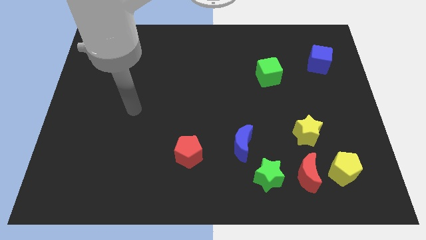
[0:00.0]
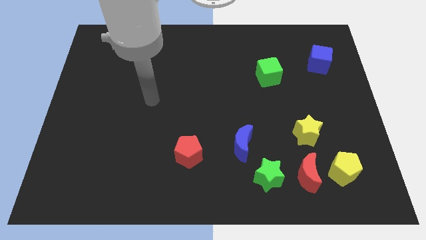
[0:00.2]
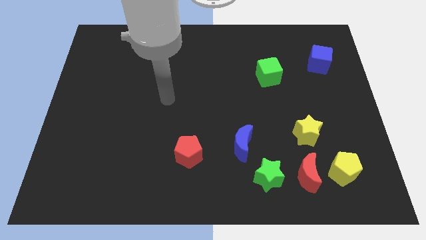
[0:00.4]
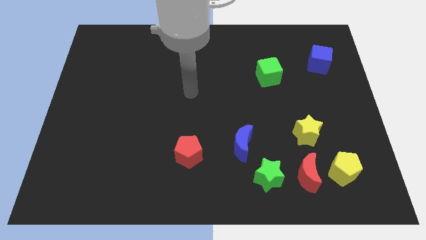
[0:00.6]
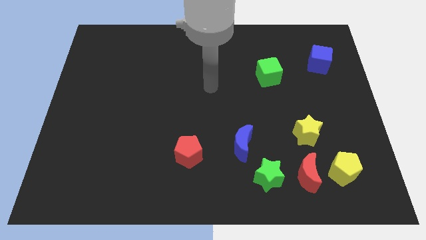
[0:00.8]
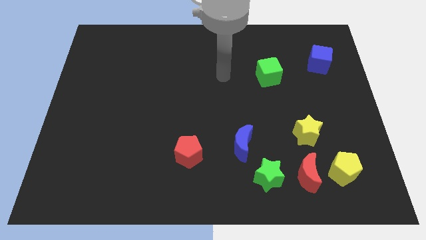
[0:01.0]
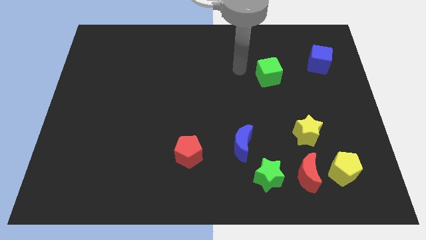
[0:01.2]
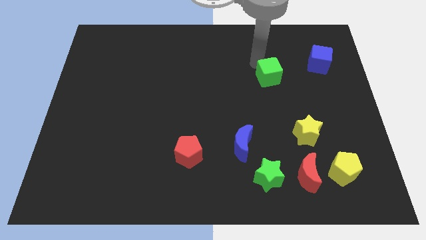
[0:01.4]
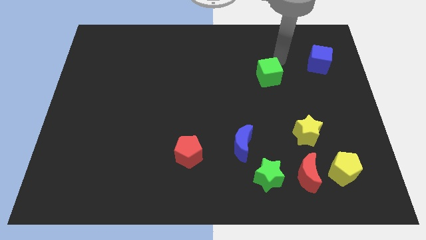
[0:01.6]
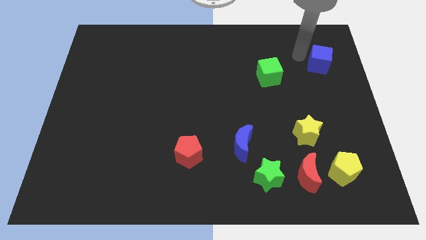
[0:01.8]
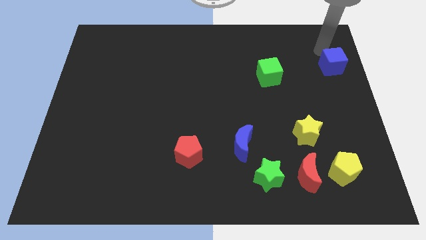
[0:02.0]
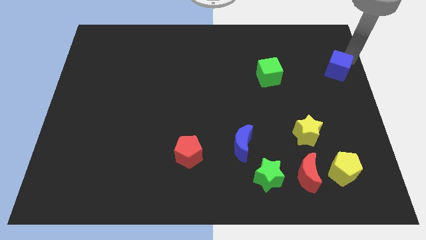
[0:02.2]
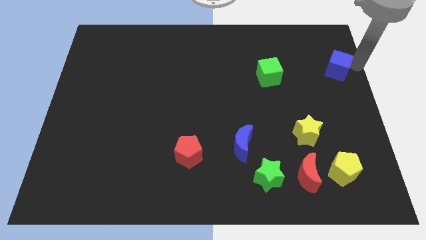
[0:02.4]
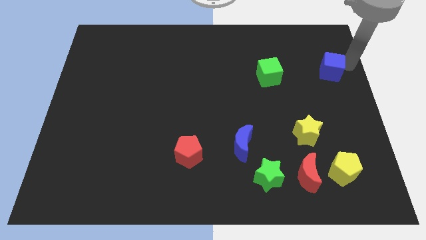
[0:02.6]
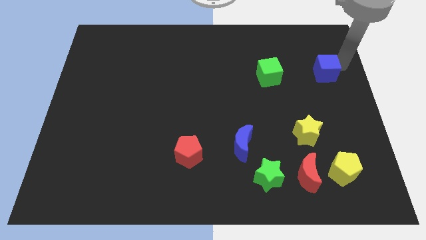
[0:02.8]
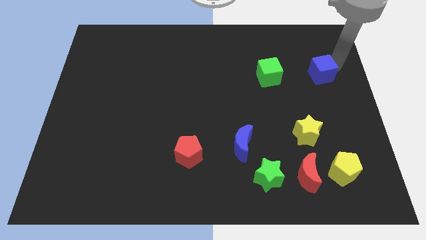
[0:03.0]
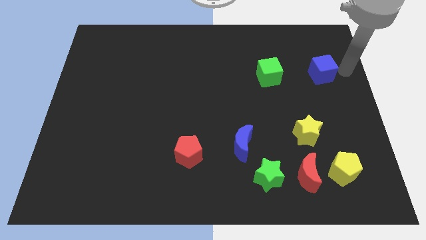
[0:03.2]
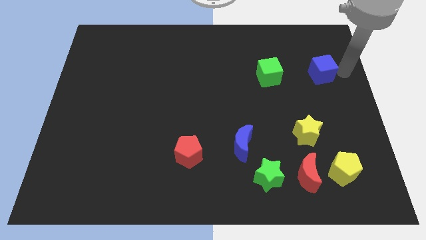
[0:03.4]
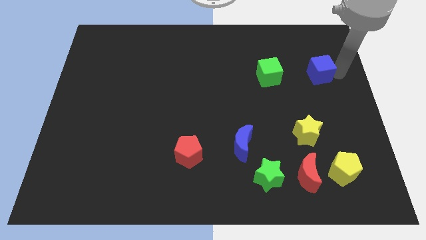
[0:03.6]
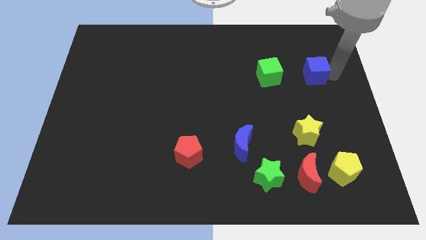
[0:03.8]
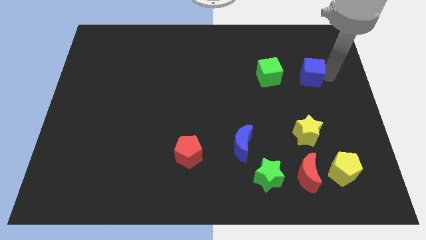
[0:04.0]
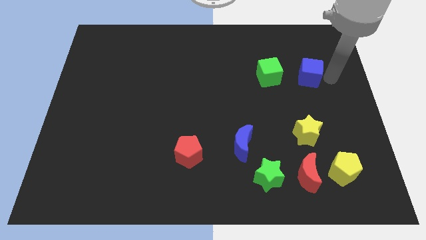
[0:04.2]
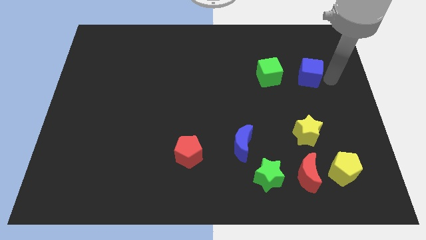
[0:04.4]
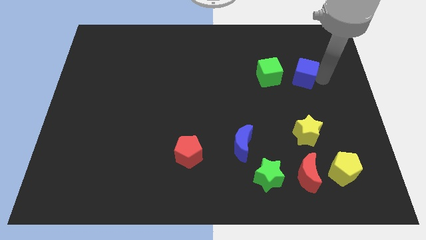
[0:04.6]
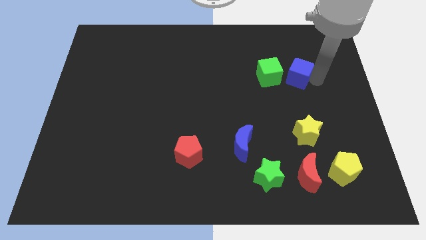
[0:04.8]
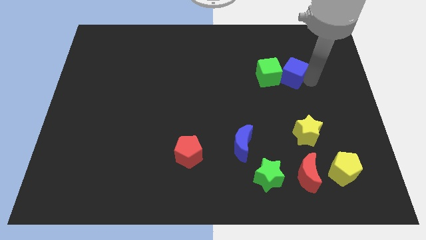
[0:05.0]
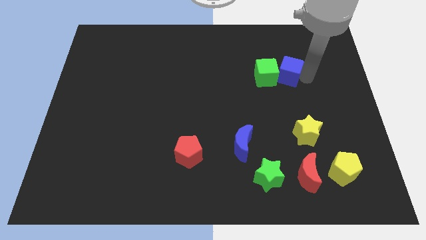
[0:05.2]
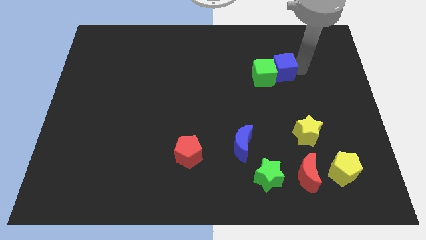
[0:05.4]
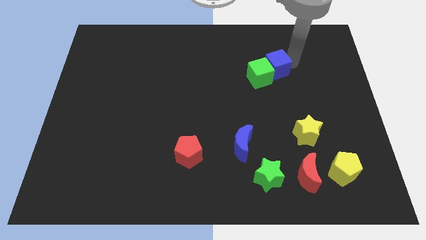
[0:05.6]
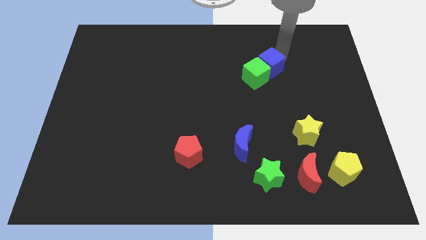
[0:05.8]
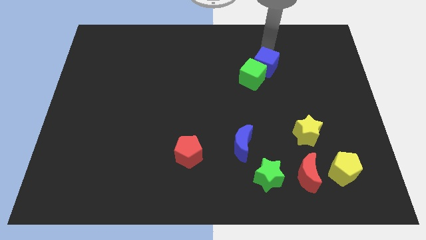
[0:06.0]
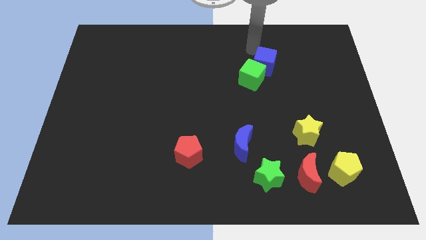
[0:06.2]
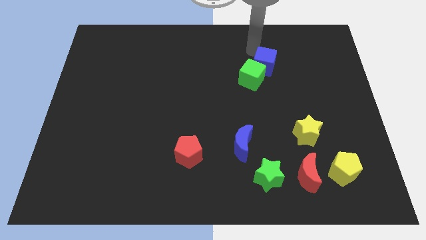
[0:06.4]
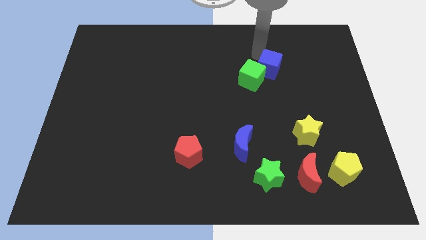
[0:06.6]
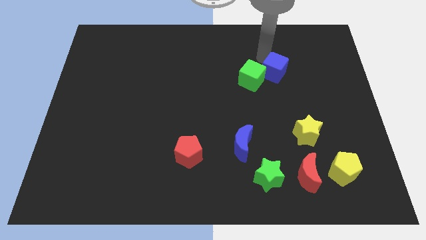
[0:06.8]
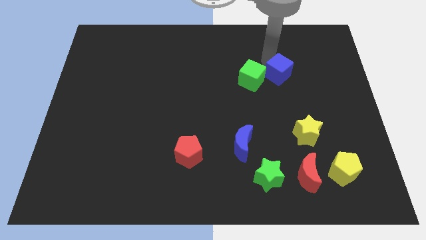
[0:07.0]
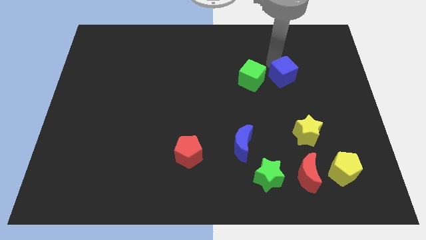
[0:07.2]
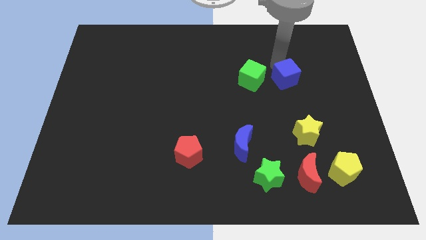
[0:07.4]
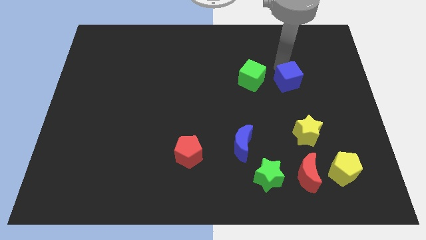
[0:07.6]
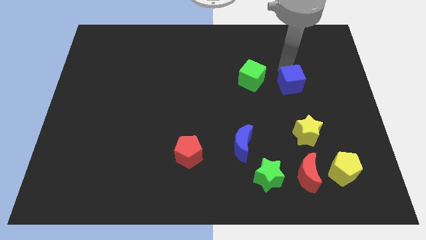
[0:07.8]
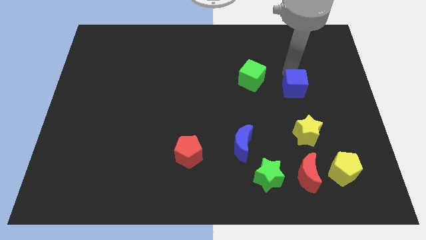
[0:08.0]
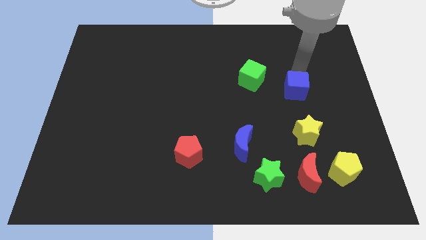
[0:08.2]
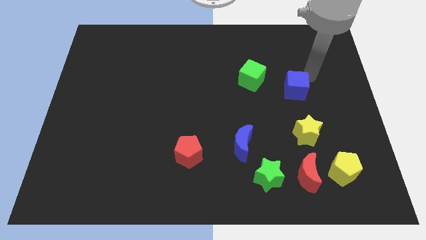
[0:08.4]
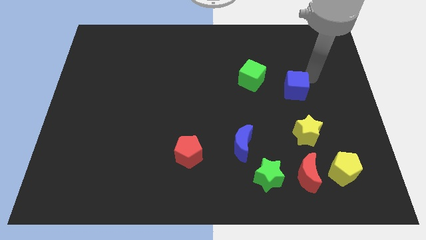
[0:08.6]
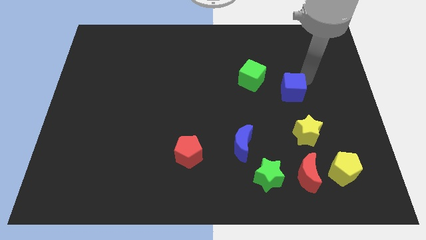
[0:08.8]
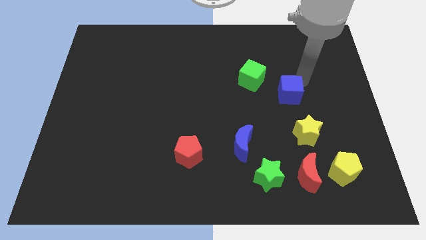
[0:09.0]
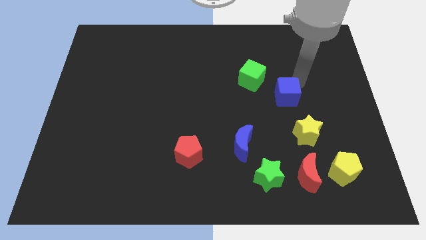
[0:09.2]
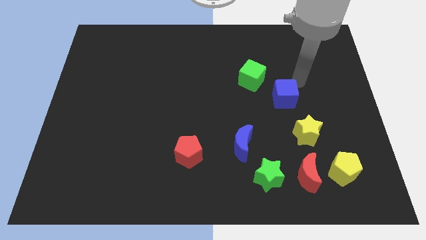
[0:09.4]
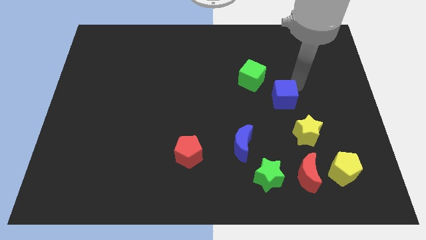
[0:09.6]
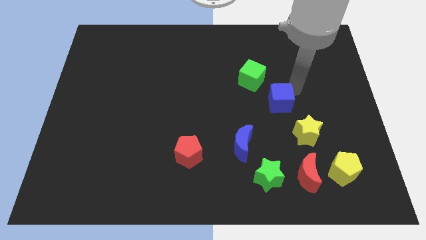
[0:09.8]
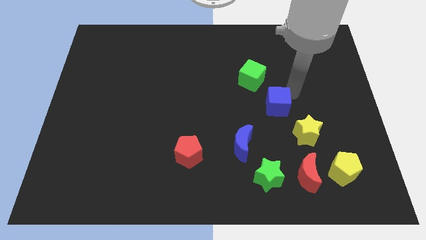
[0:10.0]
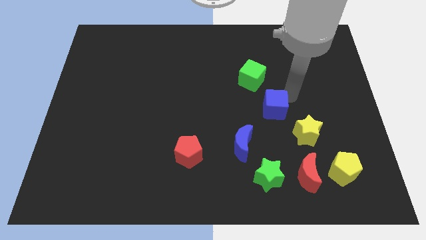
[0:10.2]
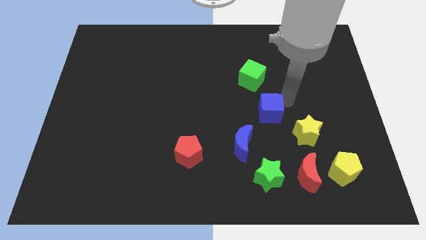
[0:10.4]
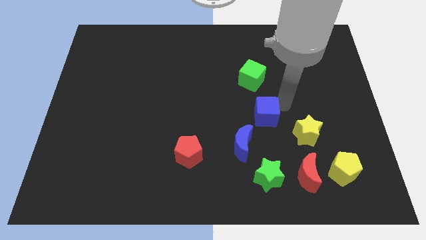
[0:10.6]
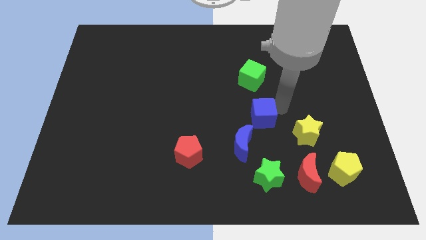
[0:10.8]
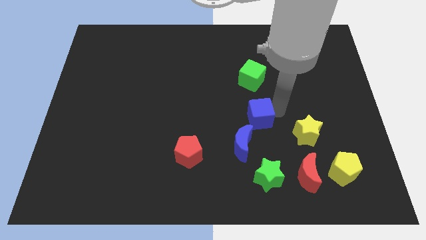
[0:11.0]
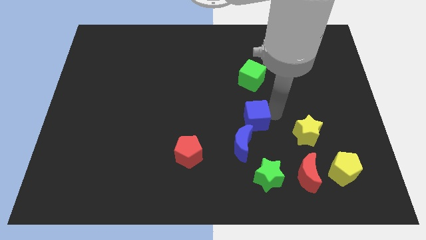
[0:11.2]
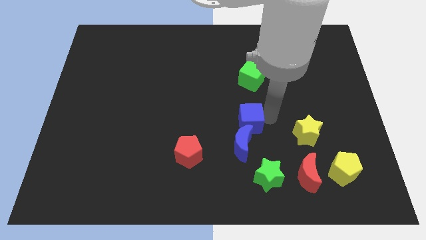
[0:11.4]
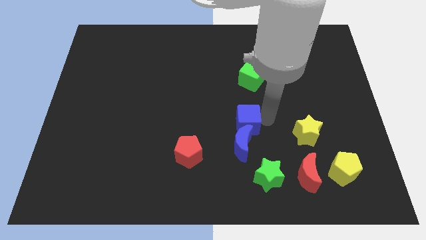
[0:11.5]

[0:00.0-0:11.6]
move the blue cube to the blue moon
